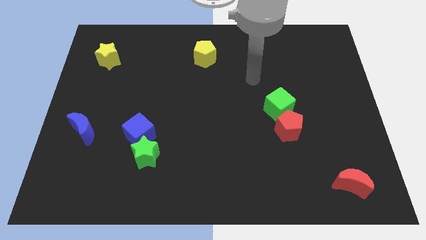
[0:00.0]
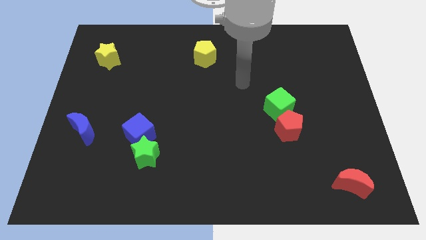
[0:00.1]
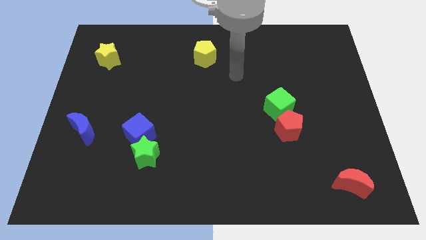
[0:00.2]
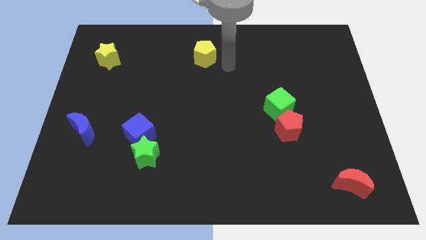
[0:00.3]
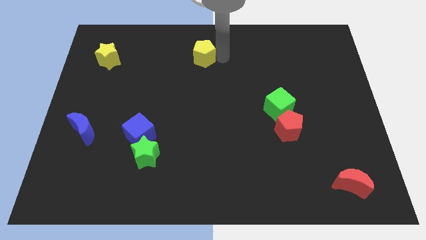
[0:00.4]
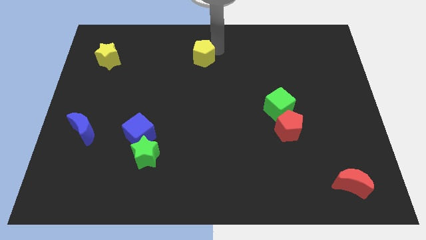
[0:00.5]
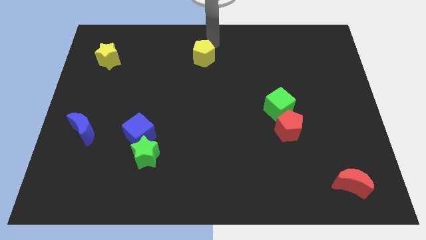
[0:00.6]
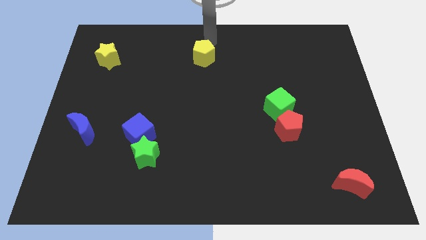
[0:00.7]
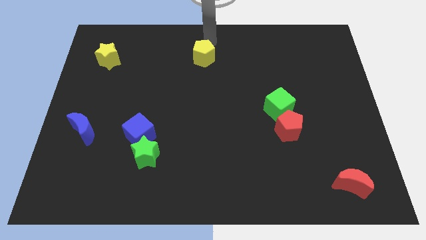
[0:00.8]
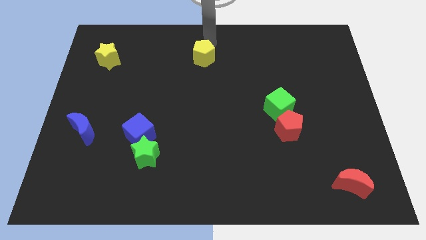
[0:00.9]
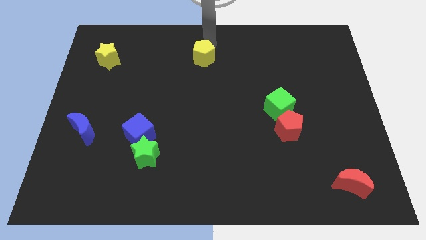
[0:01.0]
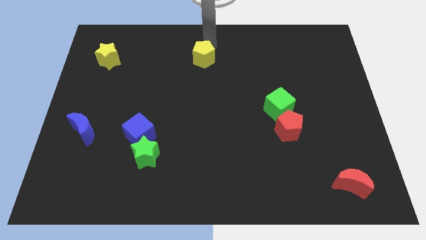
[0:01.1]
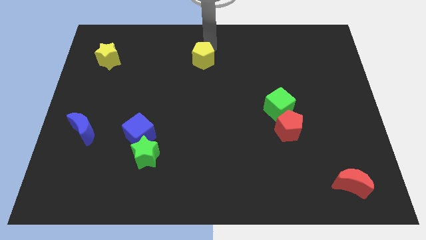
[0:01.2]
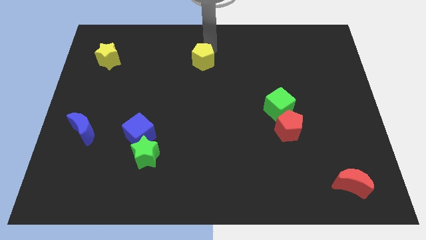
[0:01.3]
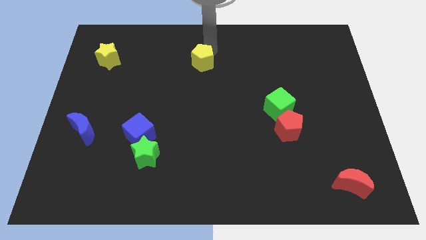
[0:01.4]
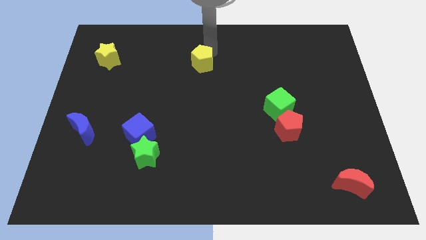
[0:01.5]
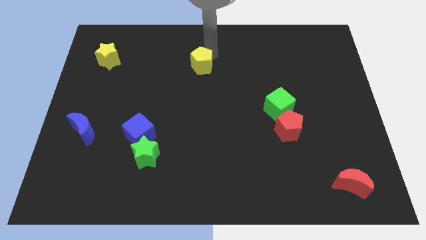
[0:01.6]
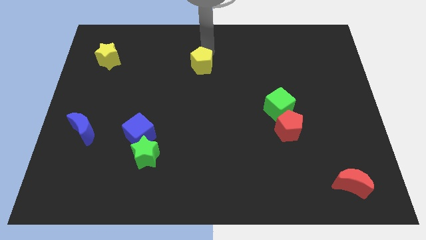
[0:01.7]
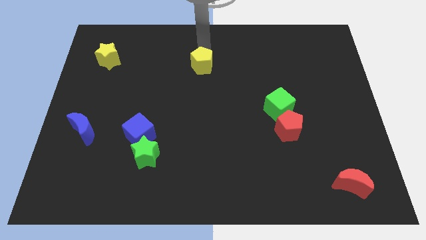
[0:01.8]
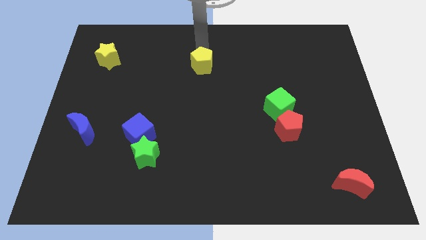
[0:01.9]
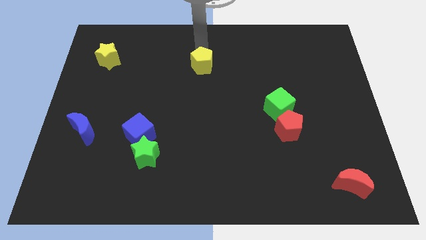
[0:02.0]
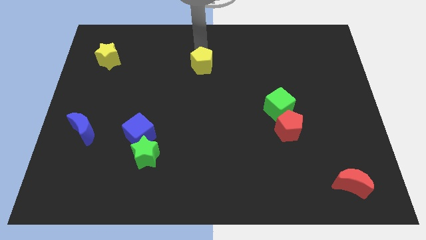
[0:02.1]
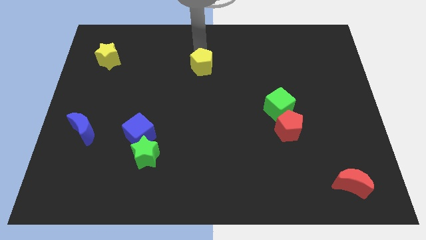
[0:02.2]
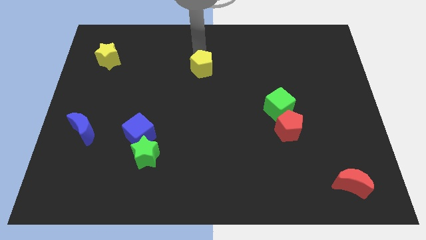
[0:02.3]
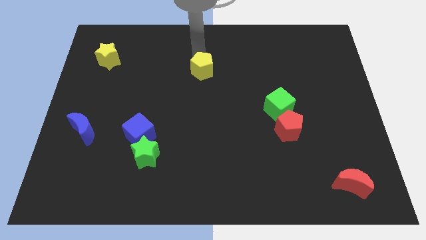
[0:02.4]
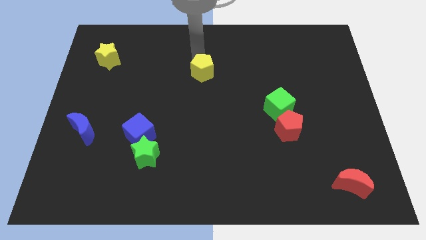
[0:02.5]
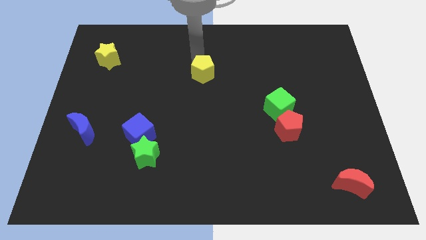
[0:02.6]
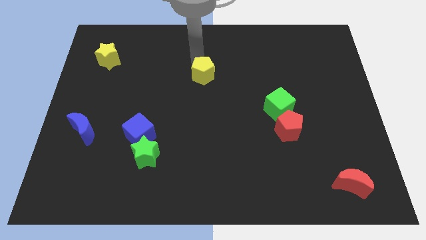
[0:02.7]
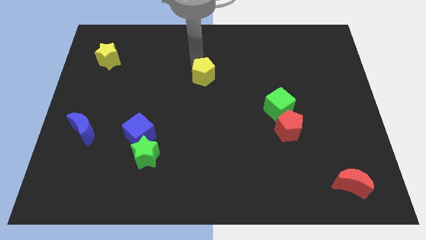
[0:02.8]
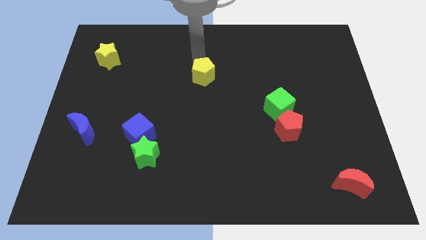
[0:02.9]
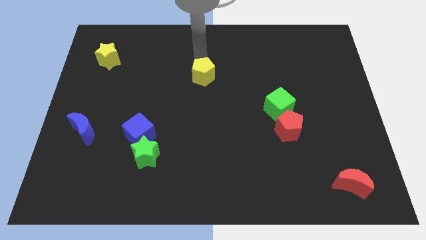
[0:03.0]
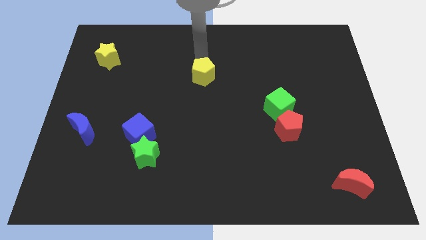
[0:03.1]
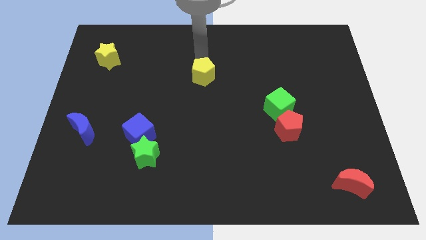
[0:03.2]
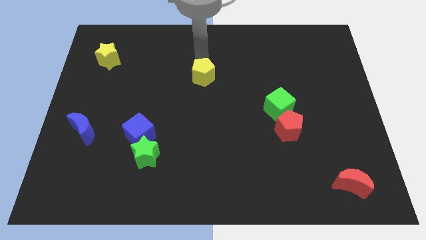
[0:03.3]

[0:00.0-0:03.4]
slide the yellow pentagon slightly downwards

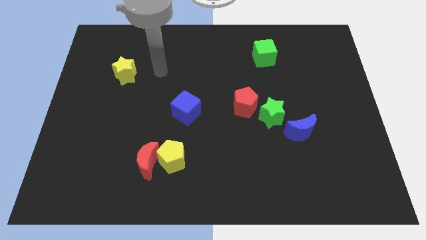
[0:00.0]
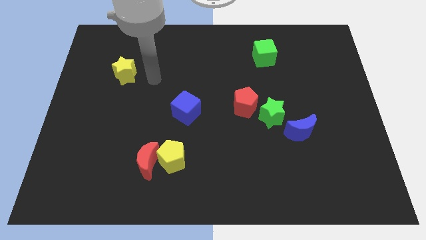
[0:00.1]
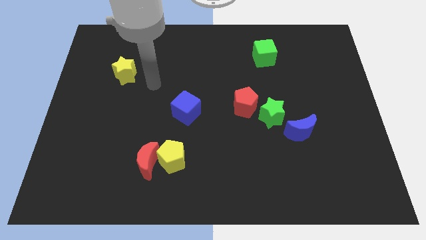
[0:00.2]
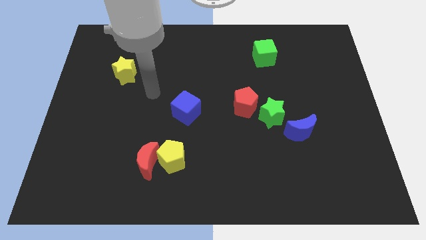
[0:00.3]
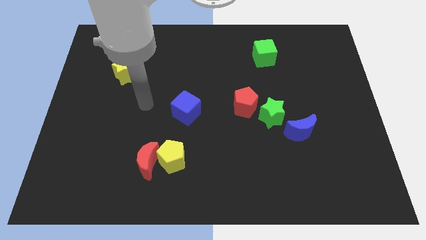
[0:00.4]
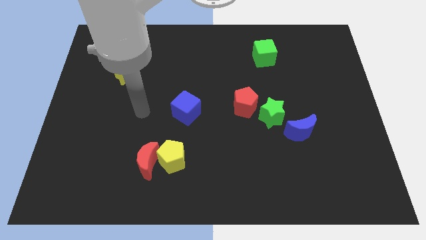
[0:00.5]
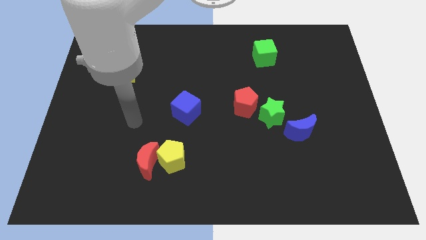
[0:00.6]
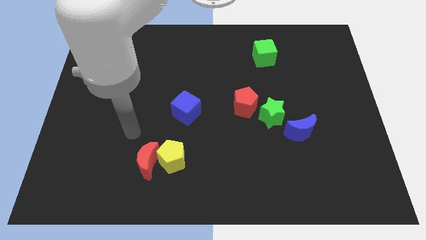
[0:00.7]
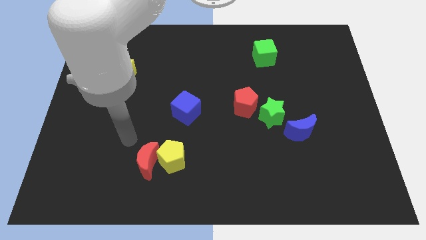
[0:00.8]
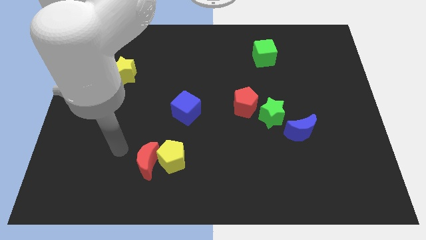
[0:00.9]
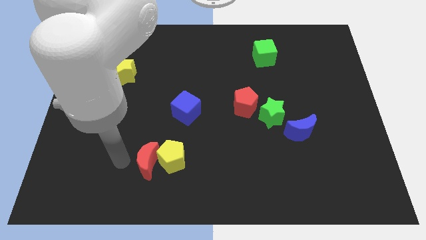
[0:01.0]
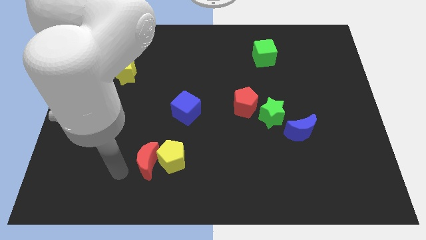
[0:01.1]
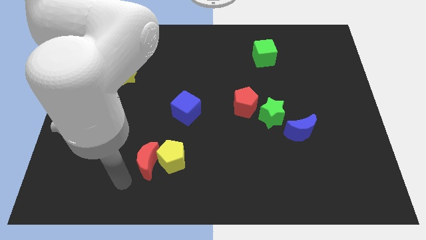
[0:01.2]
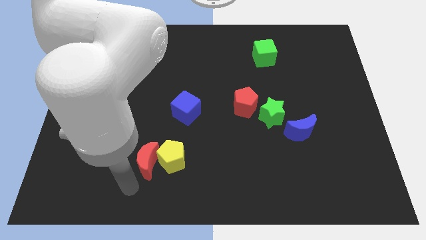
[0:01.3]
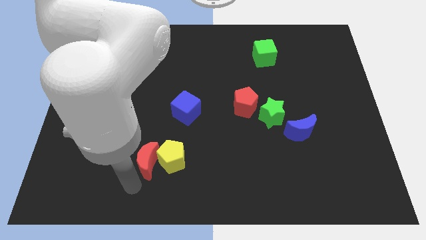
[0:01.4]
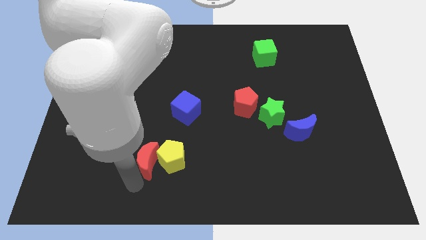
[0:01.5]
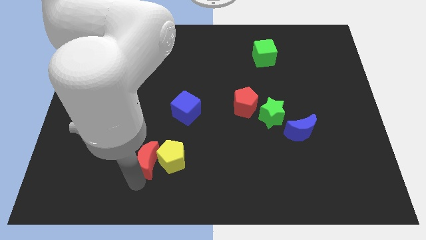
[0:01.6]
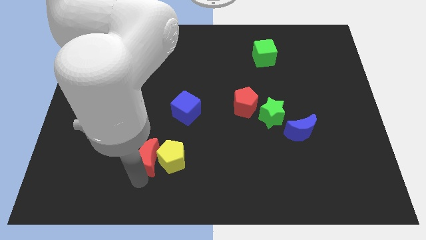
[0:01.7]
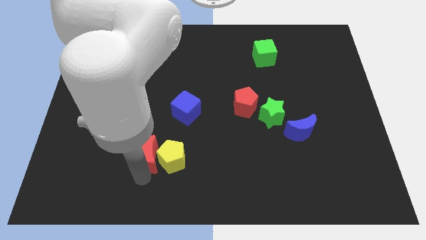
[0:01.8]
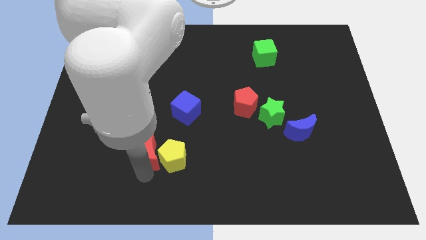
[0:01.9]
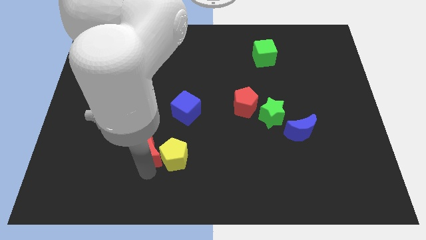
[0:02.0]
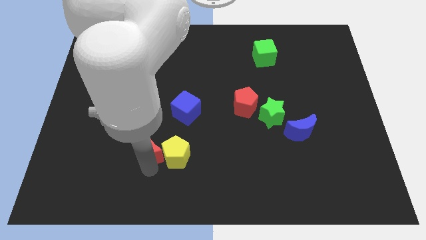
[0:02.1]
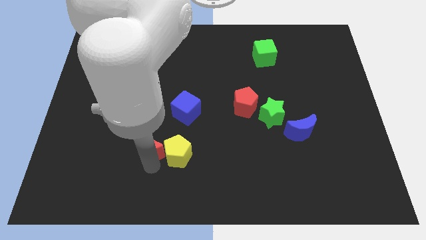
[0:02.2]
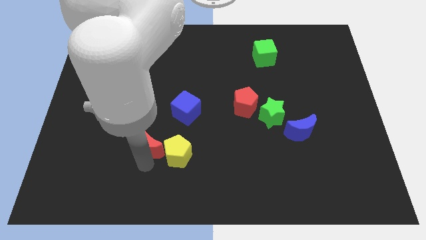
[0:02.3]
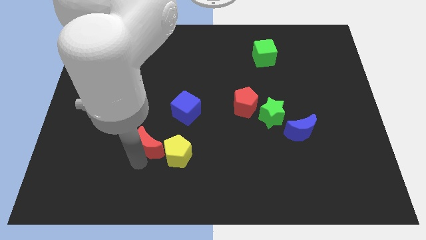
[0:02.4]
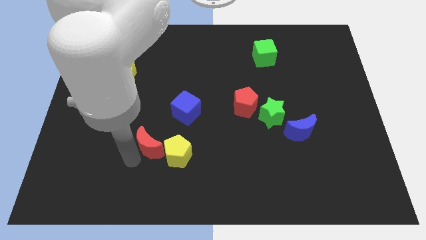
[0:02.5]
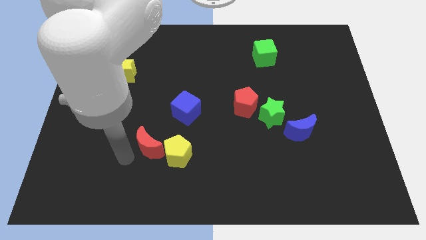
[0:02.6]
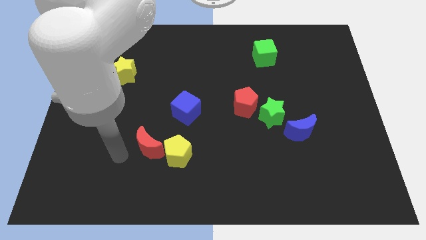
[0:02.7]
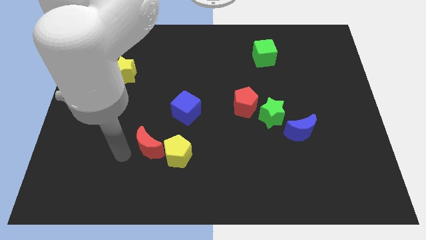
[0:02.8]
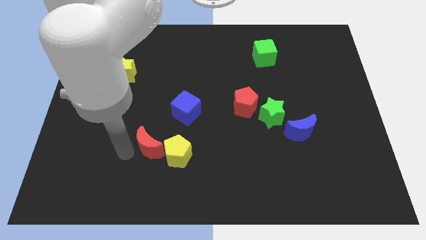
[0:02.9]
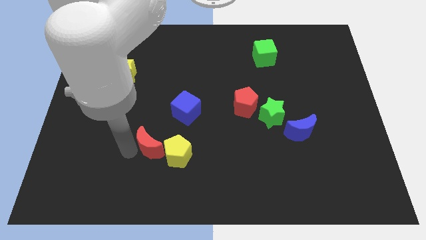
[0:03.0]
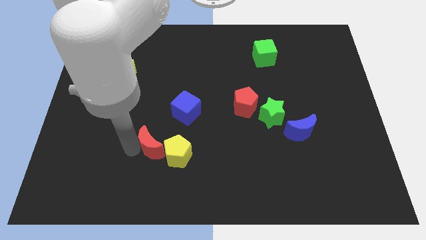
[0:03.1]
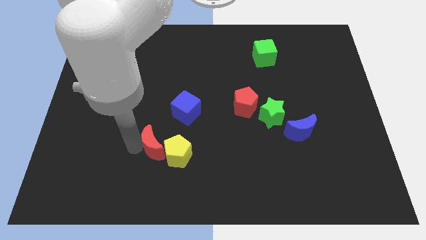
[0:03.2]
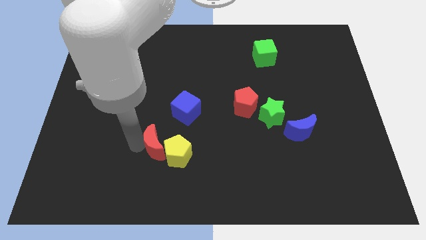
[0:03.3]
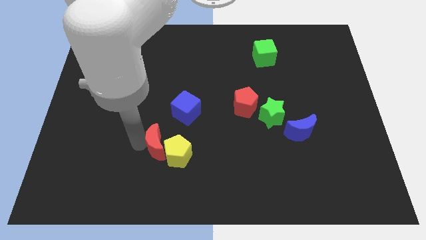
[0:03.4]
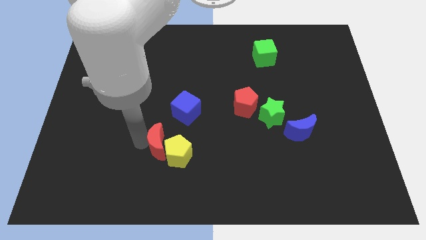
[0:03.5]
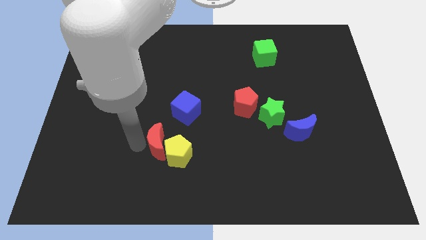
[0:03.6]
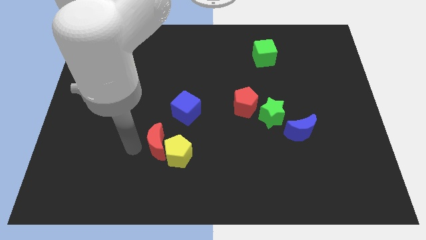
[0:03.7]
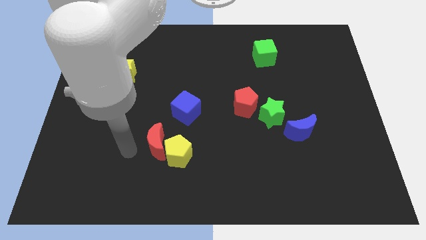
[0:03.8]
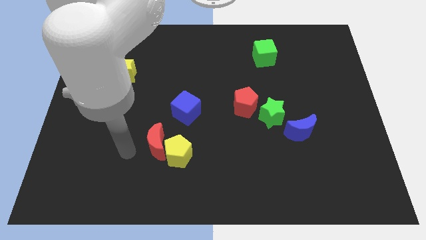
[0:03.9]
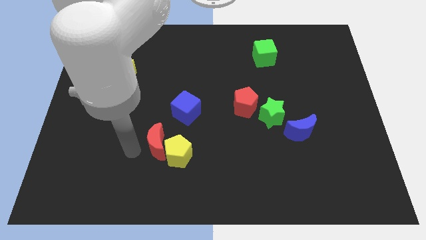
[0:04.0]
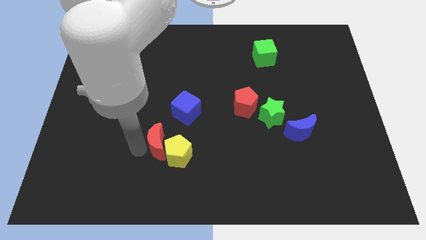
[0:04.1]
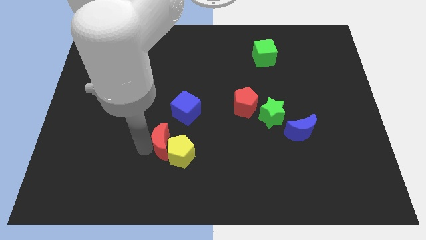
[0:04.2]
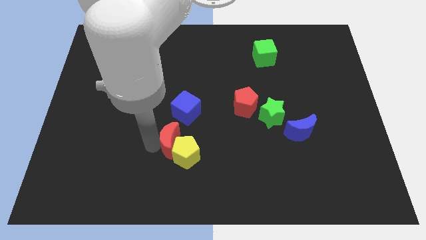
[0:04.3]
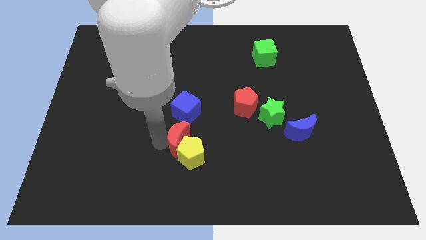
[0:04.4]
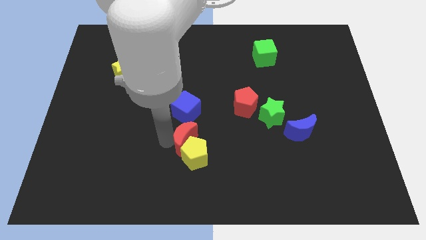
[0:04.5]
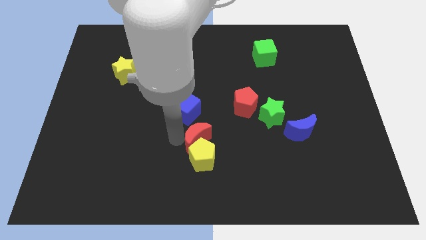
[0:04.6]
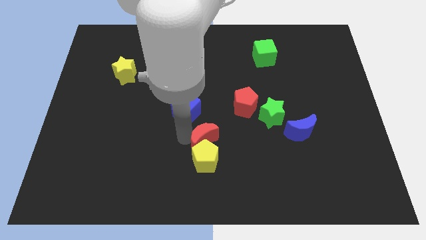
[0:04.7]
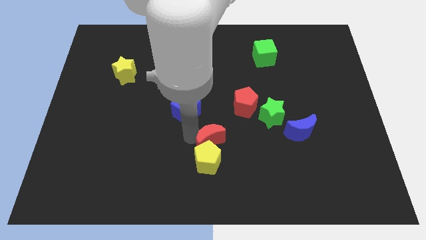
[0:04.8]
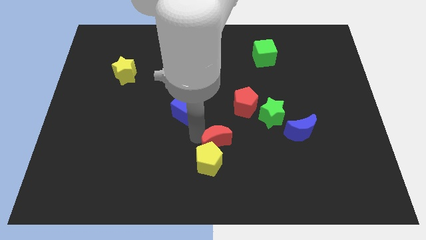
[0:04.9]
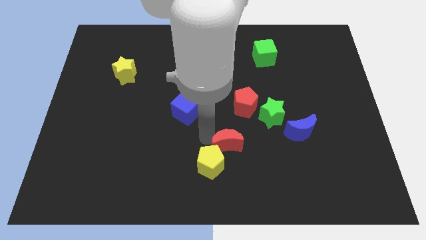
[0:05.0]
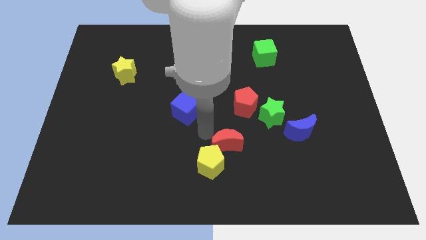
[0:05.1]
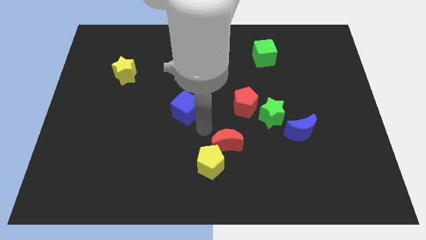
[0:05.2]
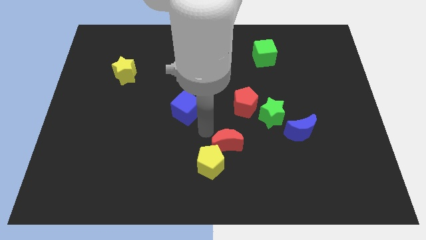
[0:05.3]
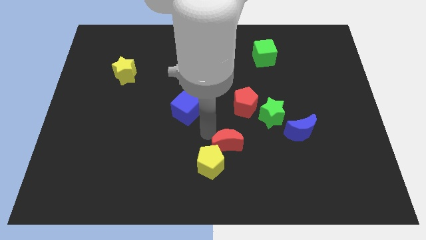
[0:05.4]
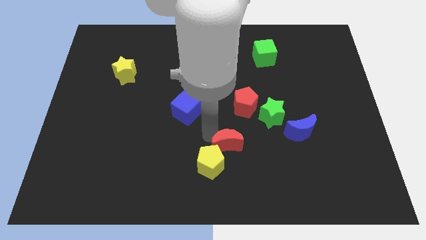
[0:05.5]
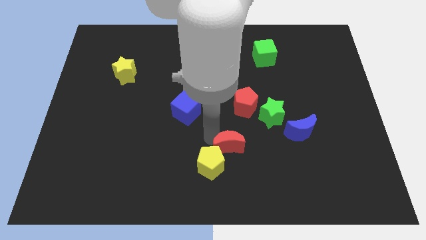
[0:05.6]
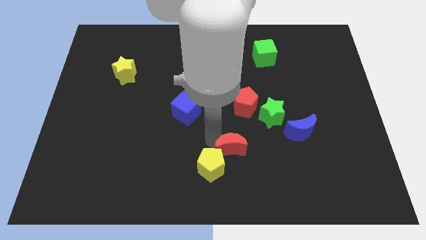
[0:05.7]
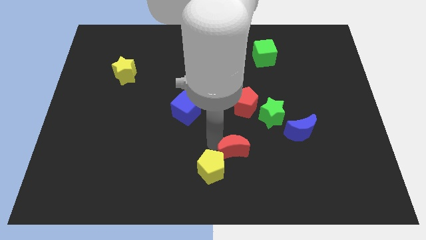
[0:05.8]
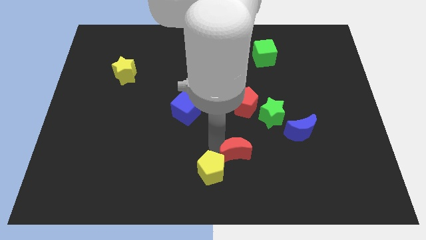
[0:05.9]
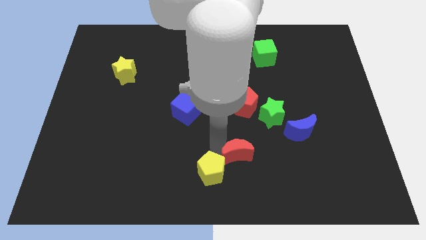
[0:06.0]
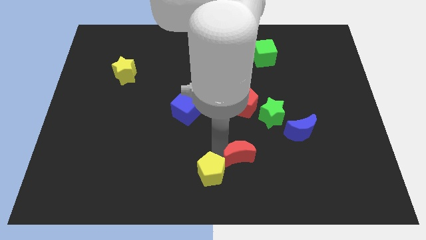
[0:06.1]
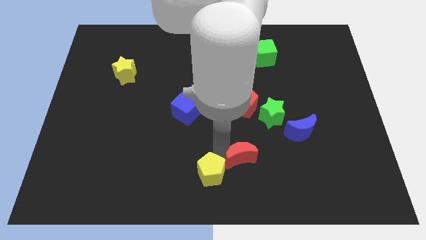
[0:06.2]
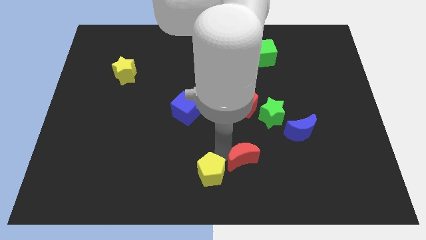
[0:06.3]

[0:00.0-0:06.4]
slide the red moon right
